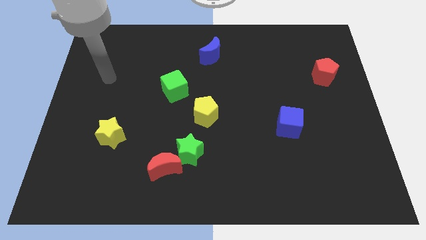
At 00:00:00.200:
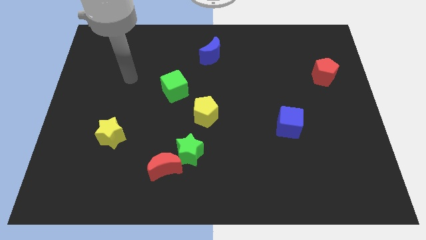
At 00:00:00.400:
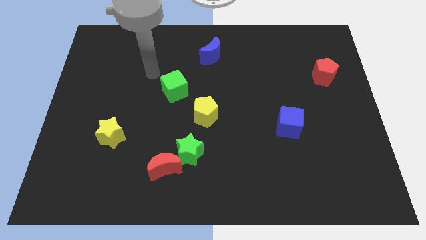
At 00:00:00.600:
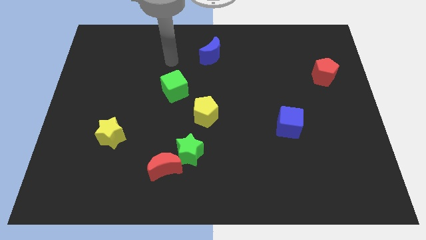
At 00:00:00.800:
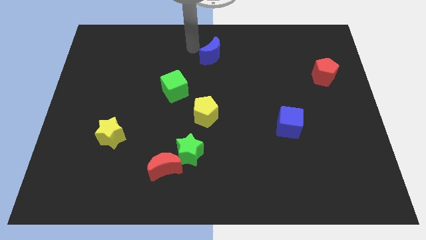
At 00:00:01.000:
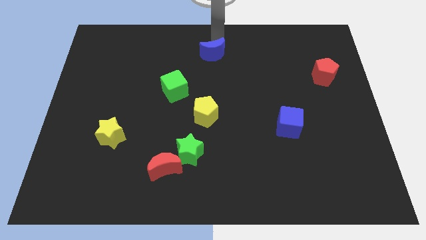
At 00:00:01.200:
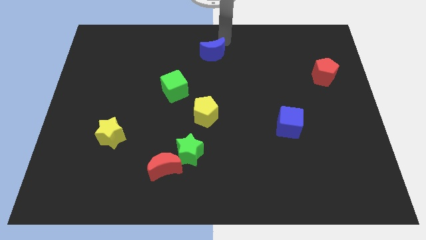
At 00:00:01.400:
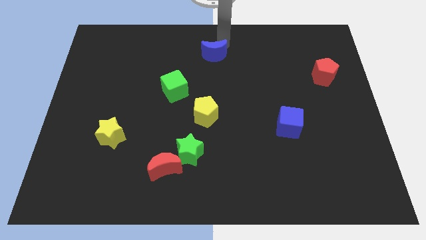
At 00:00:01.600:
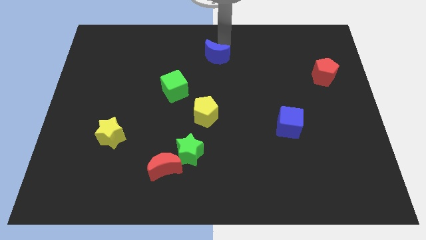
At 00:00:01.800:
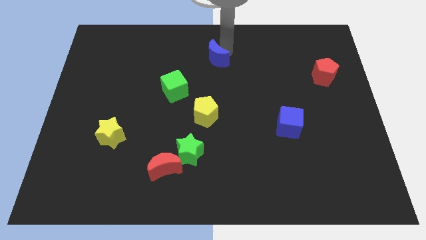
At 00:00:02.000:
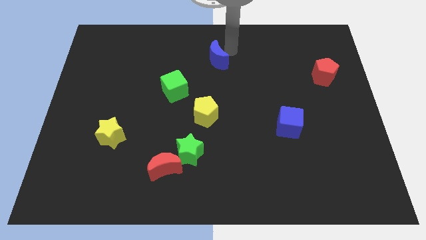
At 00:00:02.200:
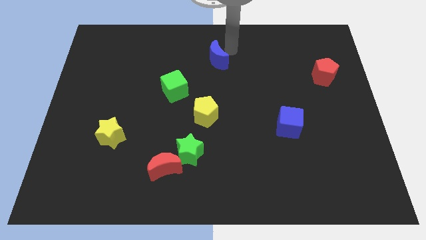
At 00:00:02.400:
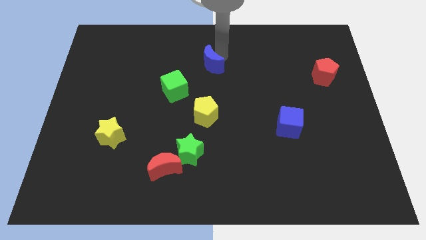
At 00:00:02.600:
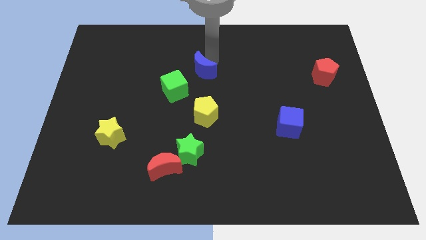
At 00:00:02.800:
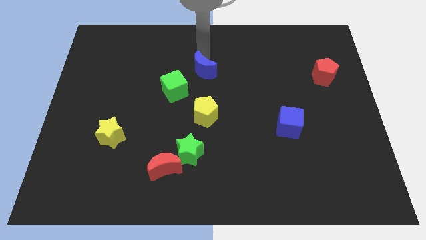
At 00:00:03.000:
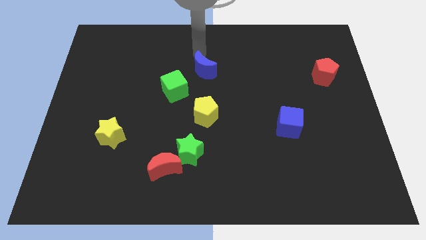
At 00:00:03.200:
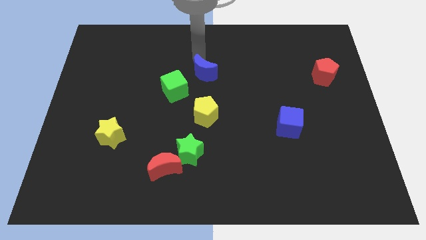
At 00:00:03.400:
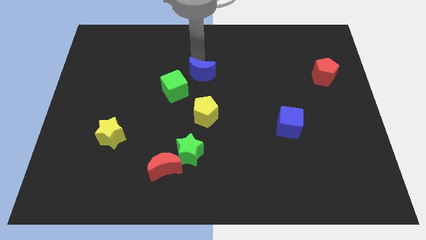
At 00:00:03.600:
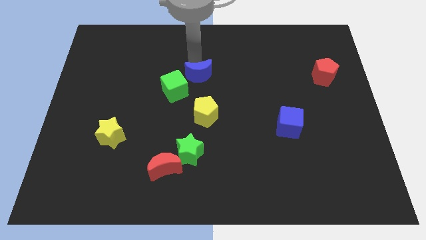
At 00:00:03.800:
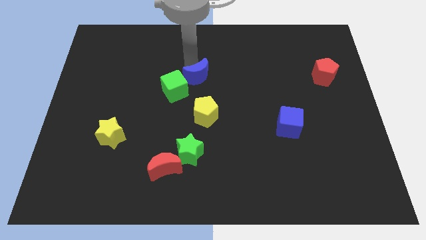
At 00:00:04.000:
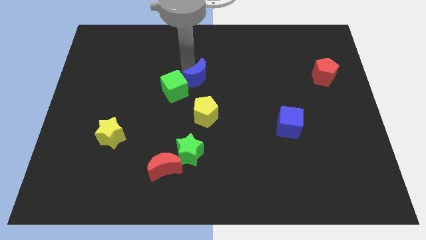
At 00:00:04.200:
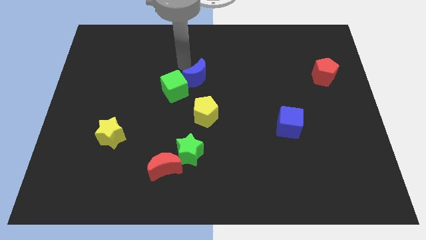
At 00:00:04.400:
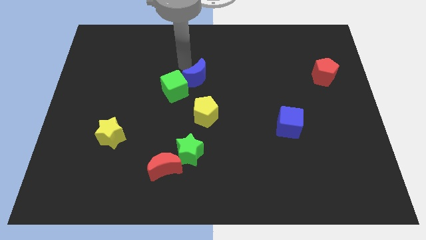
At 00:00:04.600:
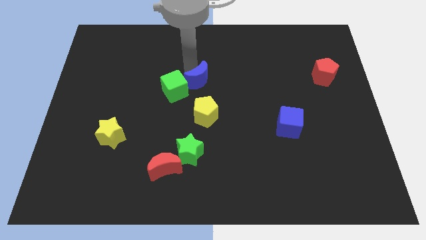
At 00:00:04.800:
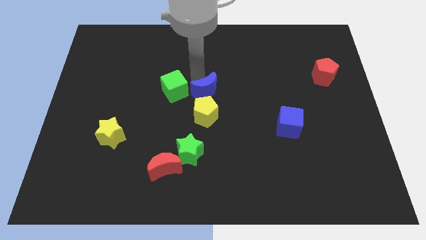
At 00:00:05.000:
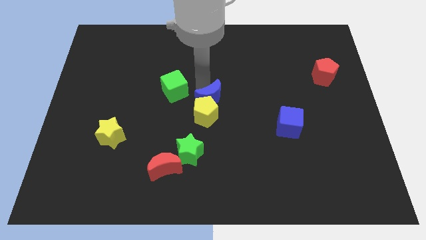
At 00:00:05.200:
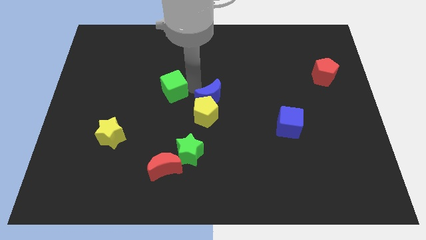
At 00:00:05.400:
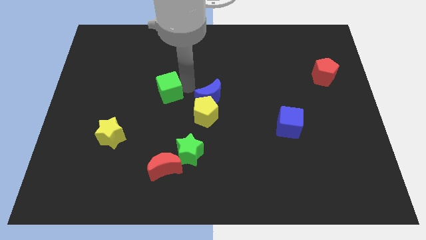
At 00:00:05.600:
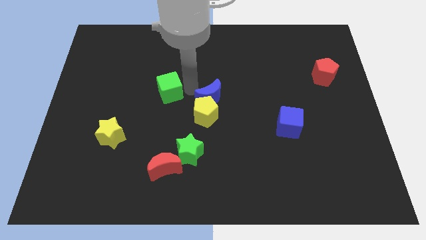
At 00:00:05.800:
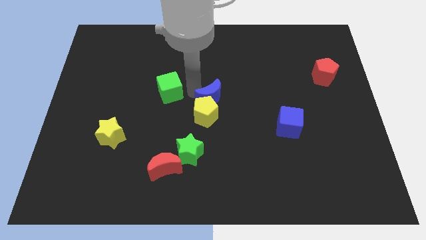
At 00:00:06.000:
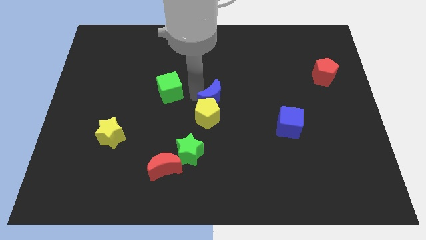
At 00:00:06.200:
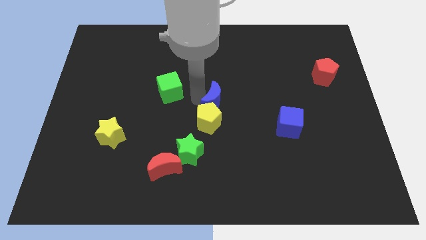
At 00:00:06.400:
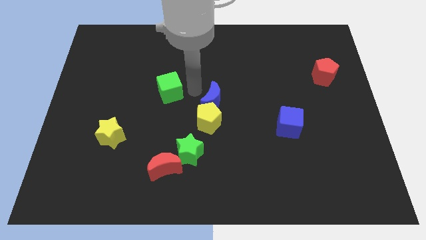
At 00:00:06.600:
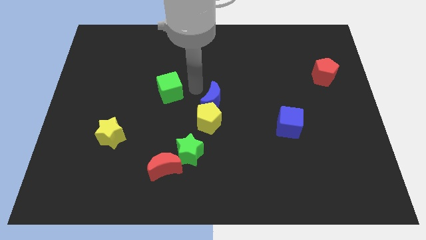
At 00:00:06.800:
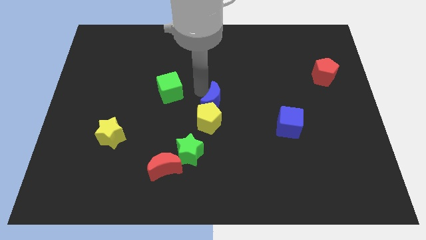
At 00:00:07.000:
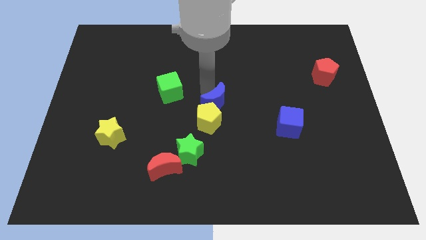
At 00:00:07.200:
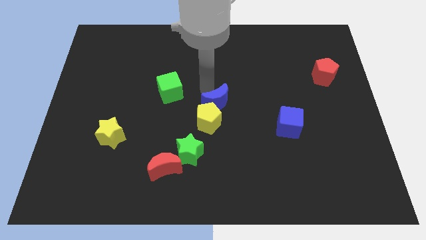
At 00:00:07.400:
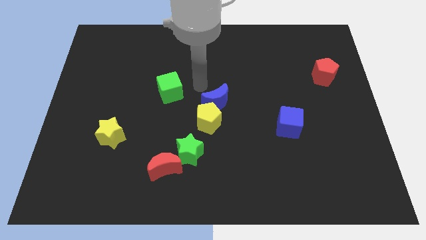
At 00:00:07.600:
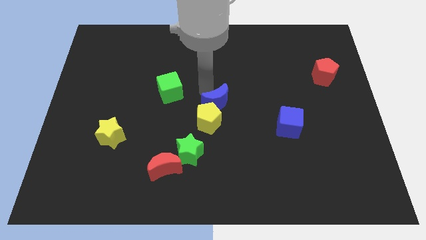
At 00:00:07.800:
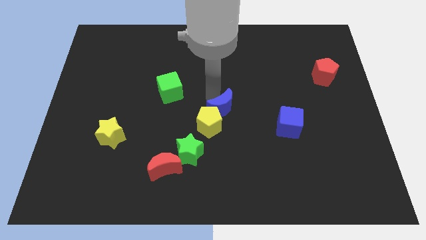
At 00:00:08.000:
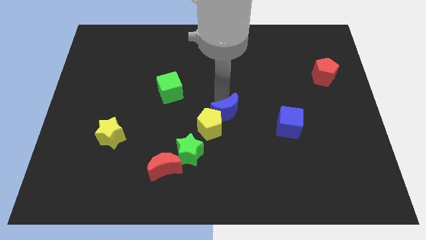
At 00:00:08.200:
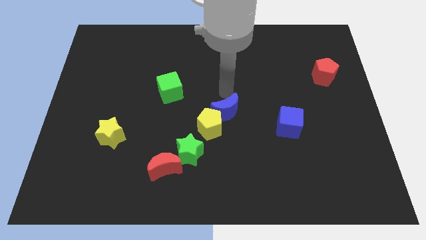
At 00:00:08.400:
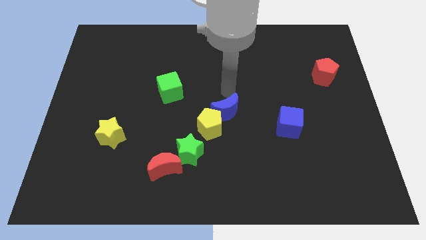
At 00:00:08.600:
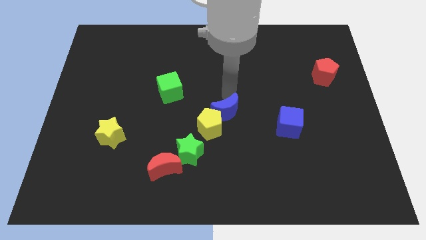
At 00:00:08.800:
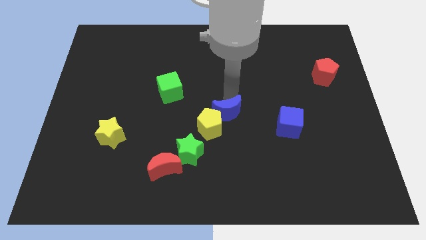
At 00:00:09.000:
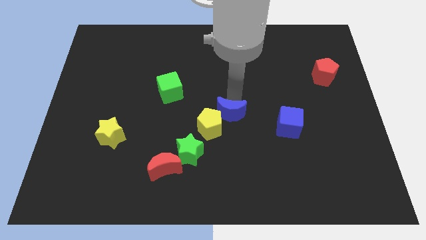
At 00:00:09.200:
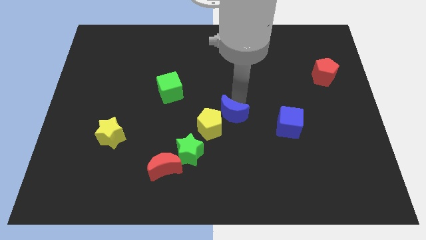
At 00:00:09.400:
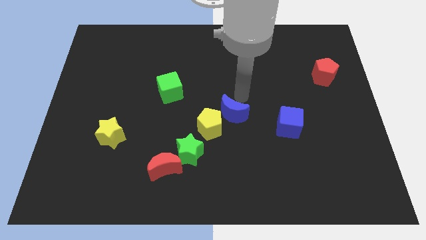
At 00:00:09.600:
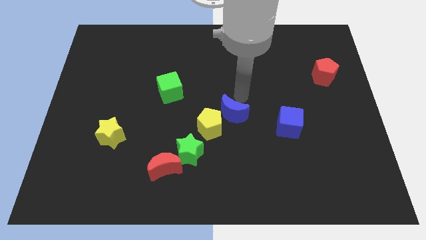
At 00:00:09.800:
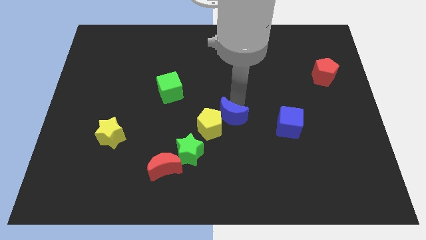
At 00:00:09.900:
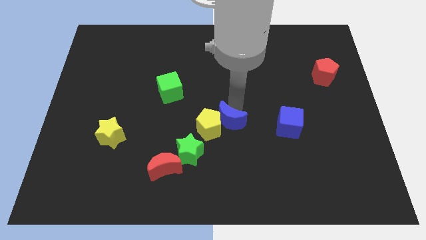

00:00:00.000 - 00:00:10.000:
move the blue moon down

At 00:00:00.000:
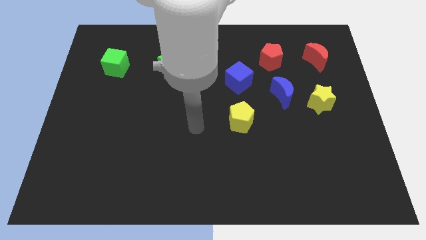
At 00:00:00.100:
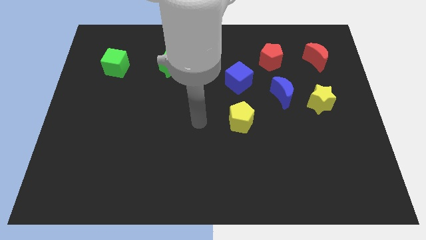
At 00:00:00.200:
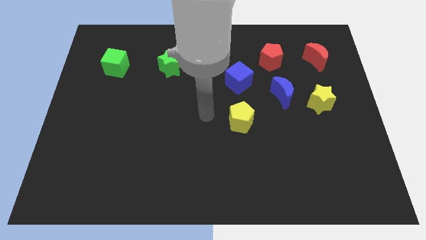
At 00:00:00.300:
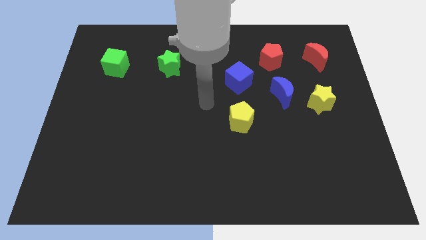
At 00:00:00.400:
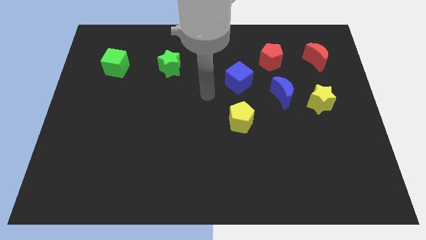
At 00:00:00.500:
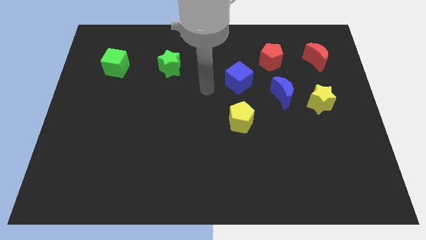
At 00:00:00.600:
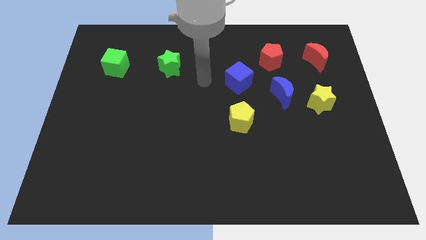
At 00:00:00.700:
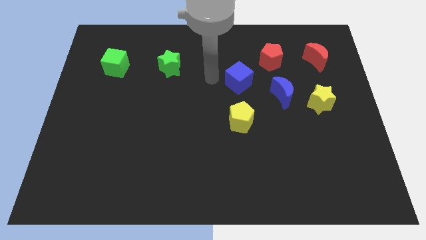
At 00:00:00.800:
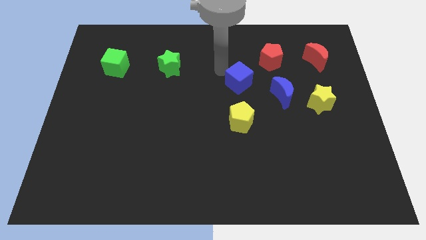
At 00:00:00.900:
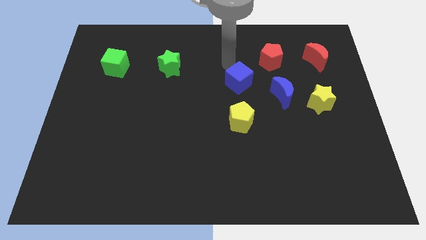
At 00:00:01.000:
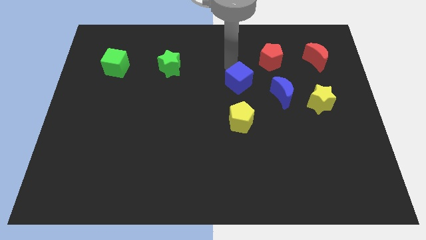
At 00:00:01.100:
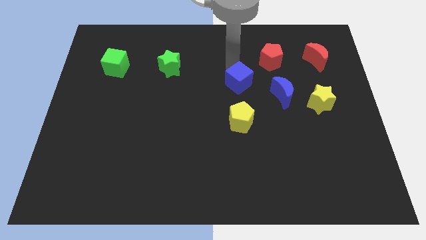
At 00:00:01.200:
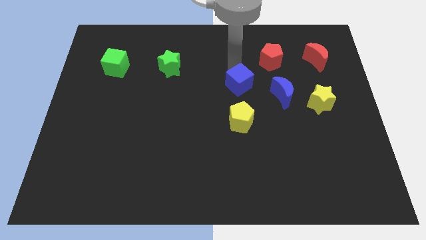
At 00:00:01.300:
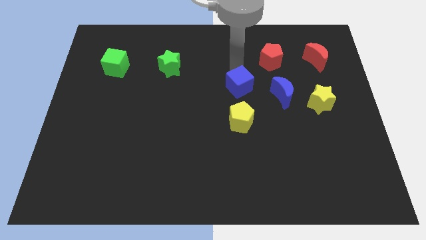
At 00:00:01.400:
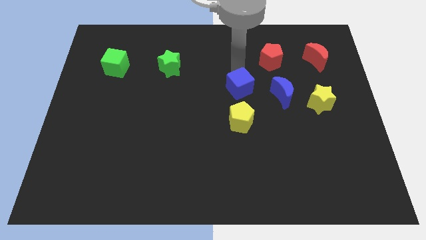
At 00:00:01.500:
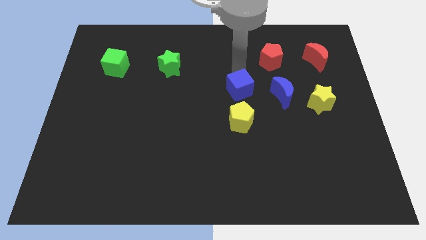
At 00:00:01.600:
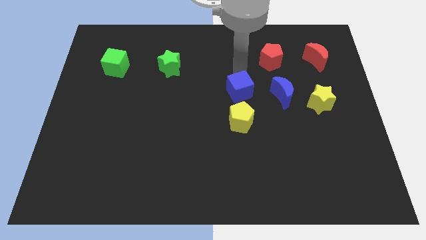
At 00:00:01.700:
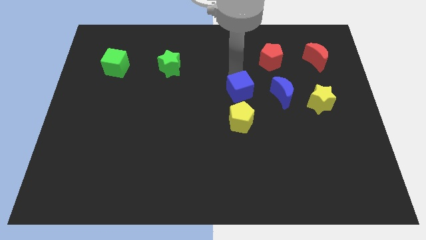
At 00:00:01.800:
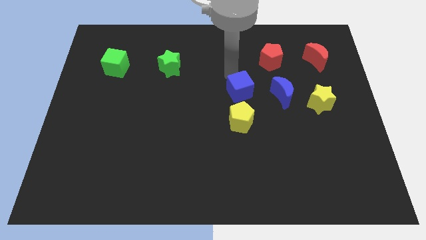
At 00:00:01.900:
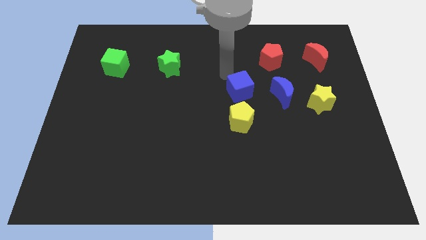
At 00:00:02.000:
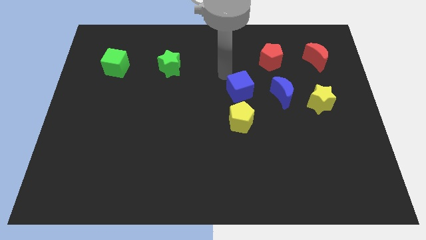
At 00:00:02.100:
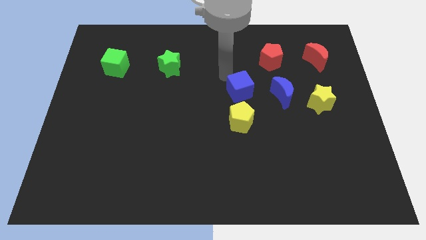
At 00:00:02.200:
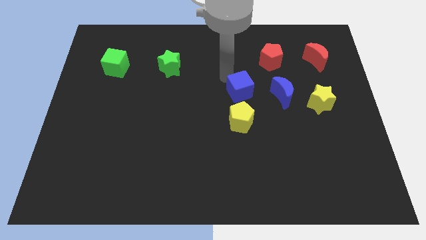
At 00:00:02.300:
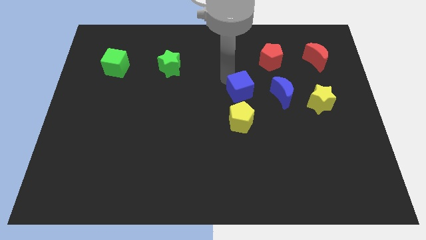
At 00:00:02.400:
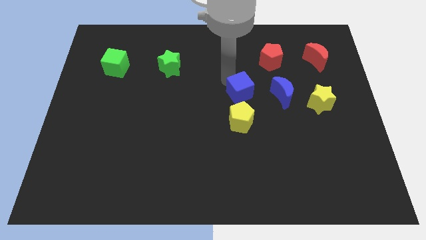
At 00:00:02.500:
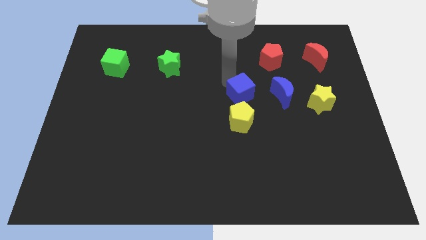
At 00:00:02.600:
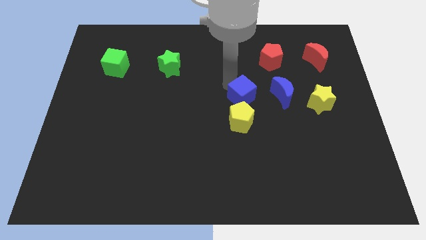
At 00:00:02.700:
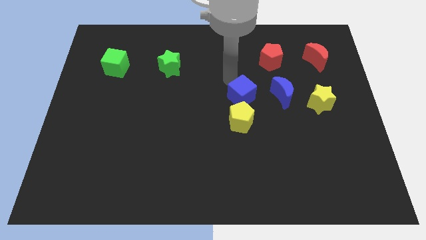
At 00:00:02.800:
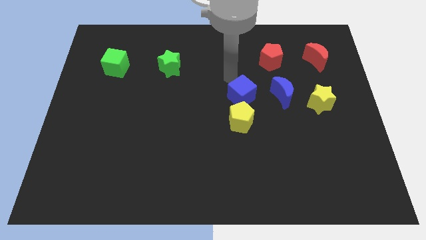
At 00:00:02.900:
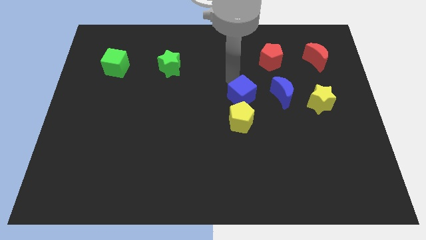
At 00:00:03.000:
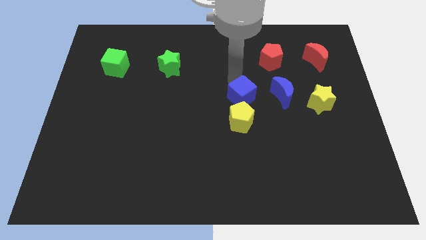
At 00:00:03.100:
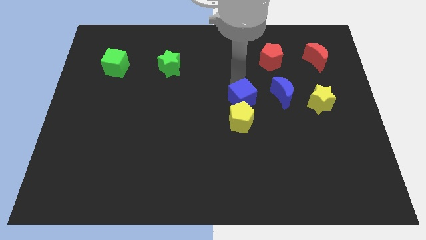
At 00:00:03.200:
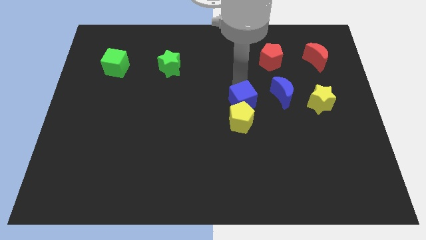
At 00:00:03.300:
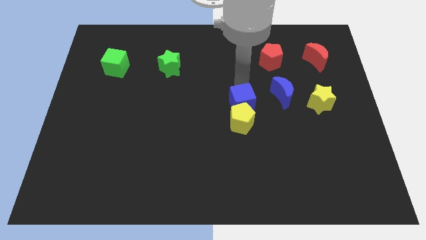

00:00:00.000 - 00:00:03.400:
move the blue cube down a little
